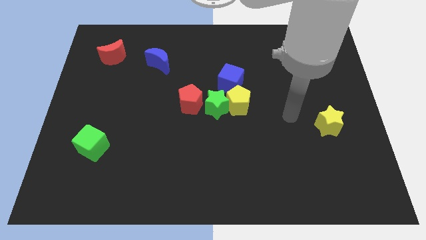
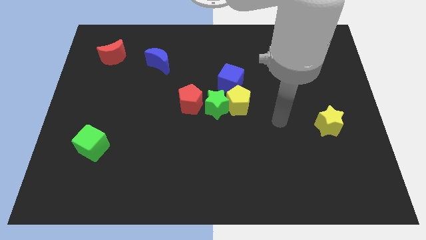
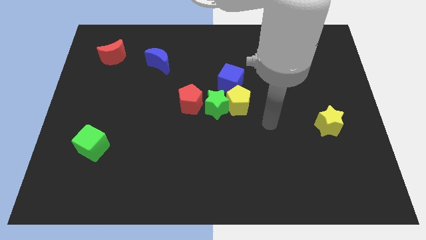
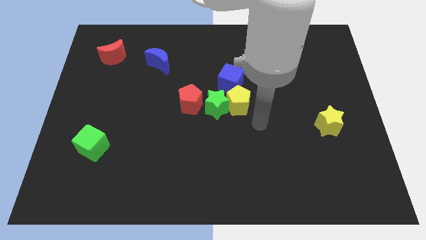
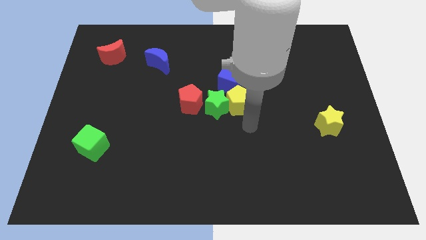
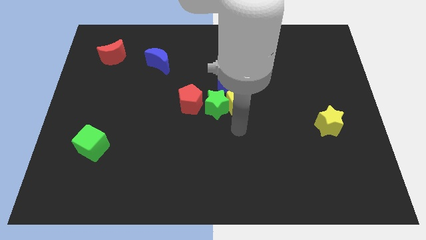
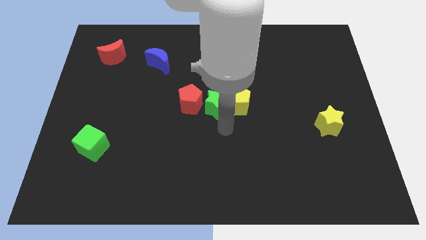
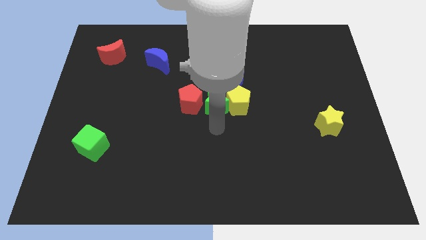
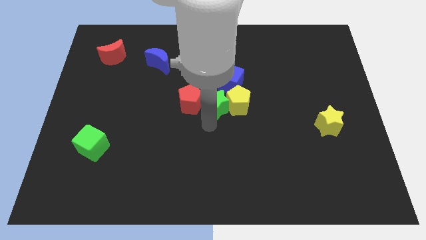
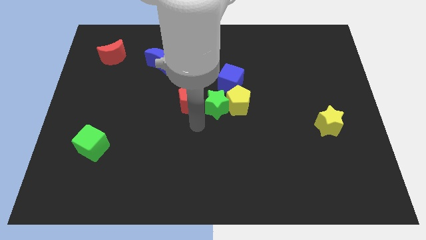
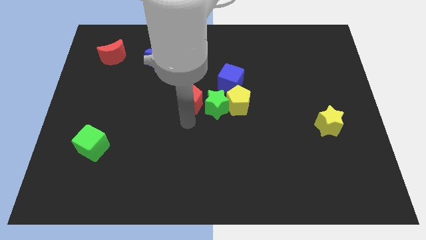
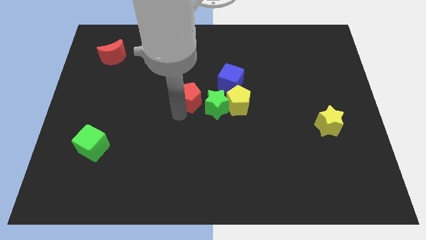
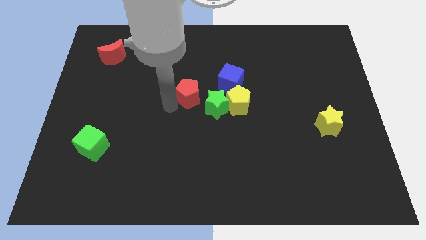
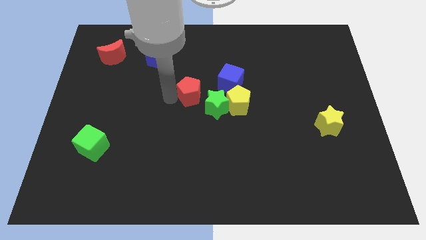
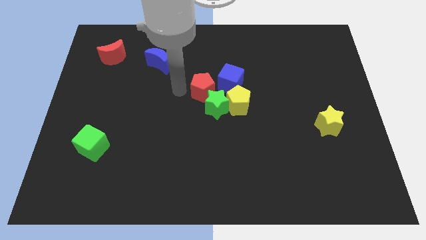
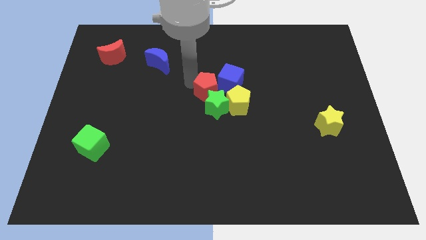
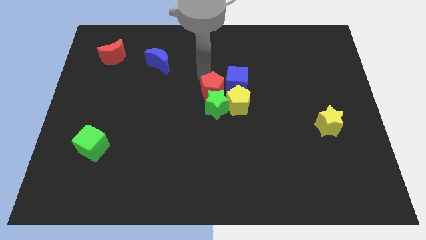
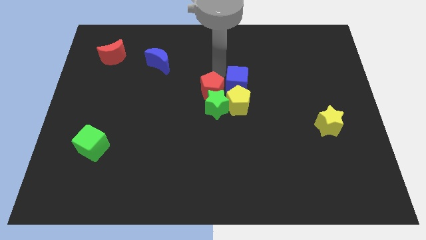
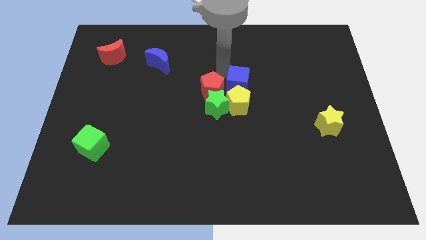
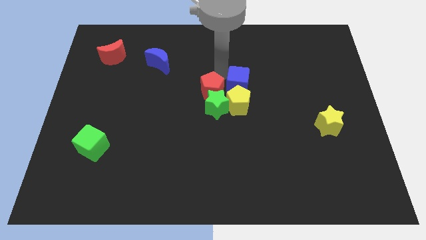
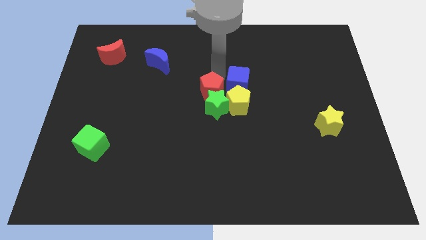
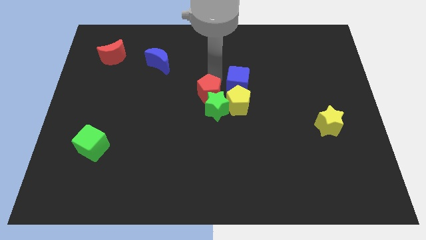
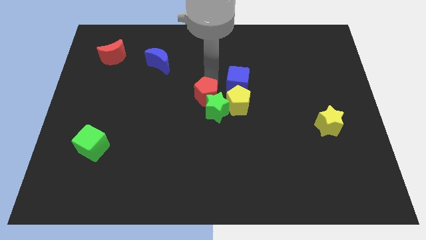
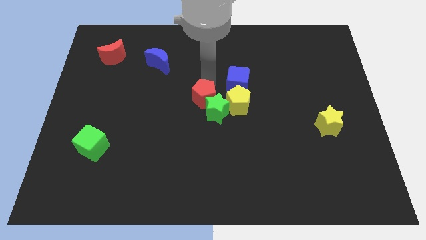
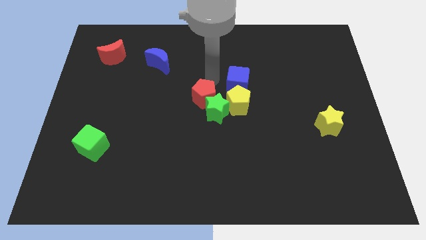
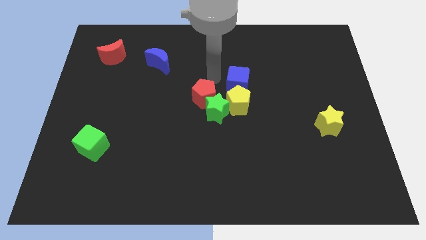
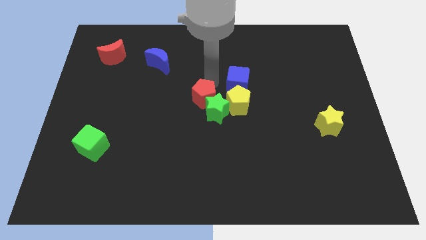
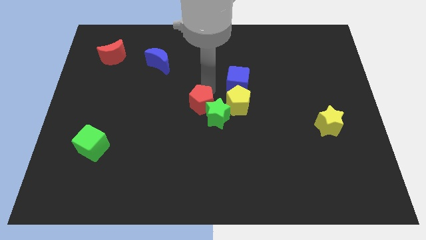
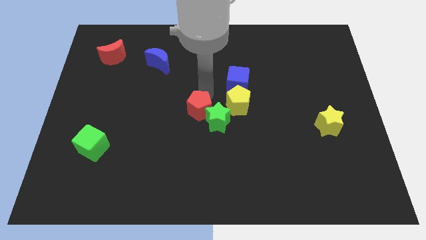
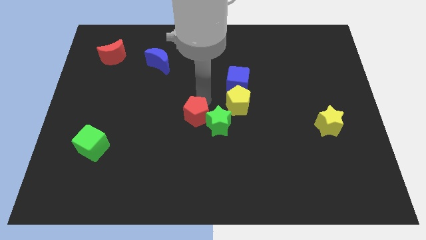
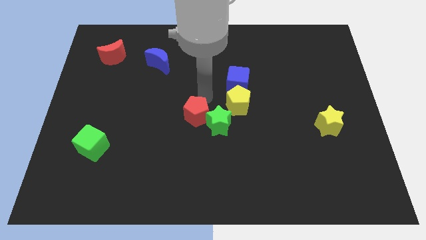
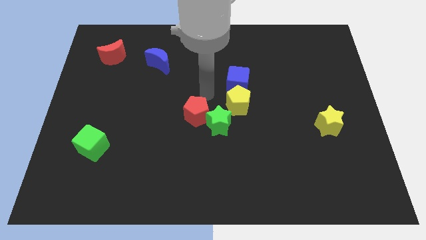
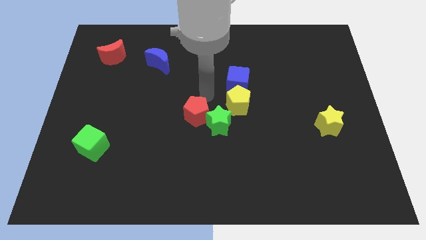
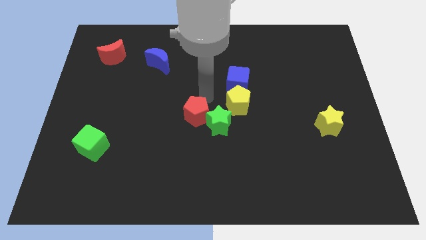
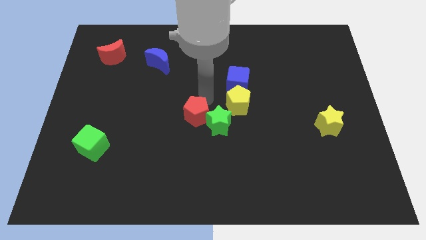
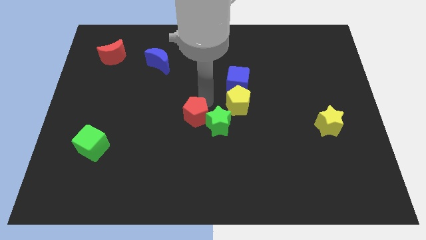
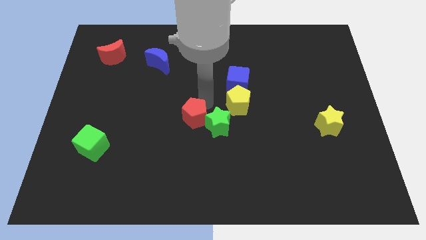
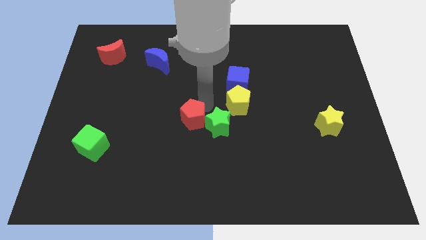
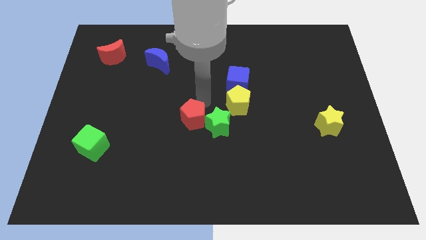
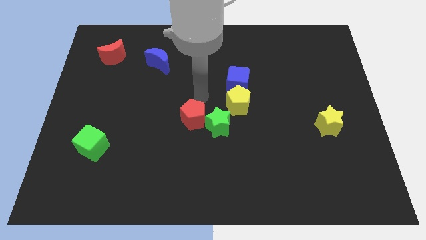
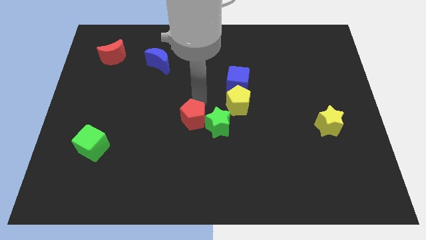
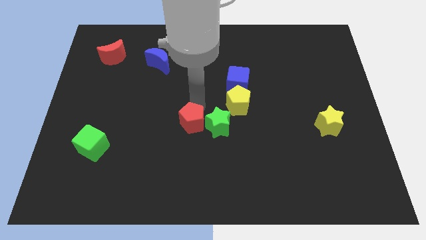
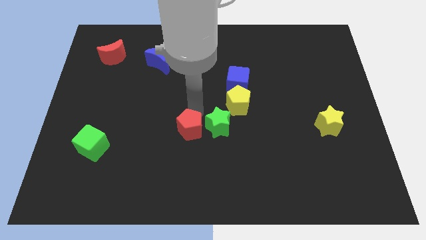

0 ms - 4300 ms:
slide the red pentagon downwards somewhat

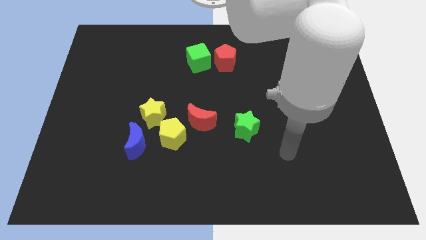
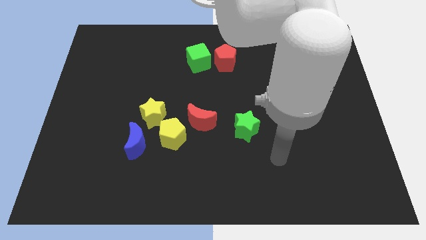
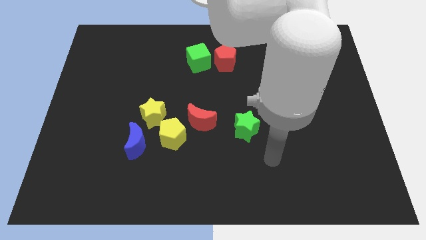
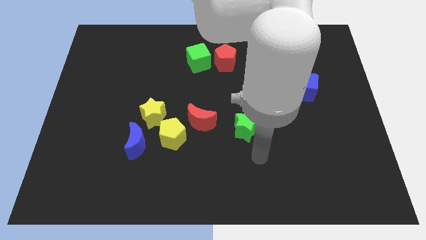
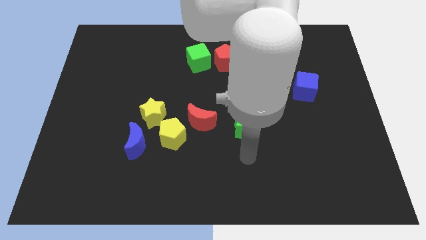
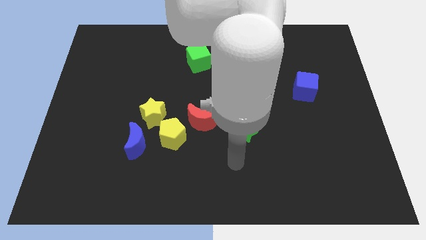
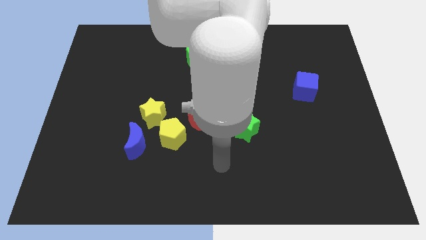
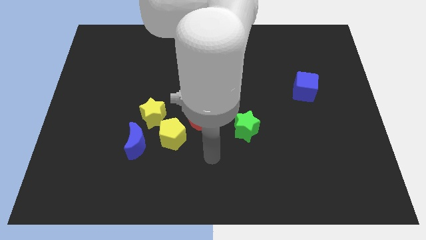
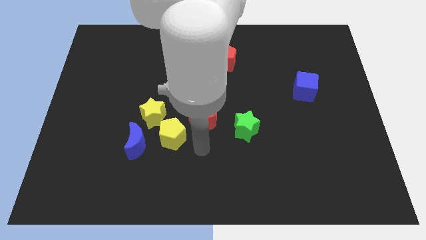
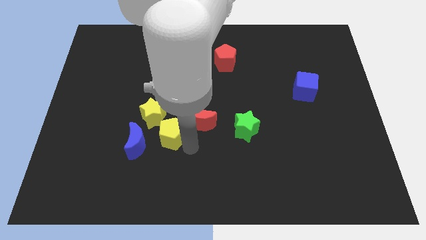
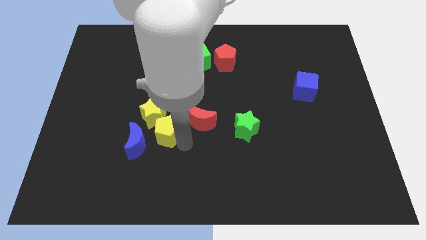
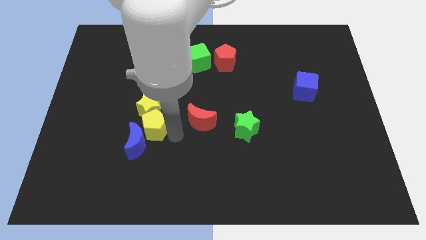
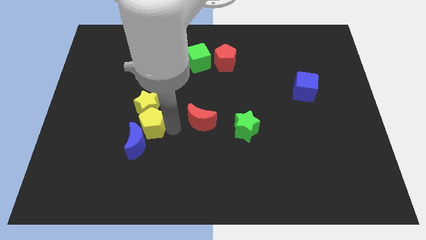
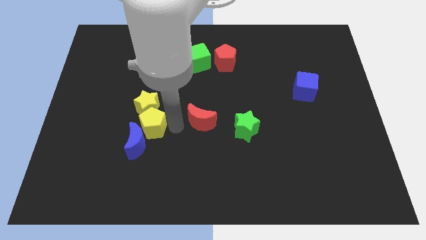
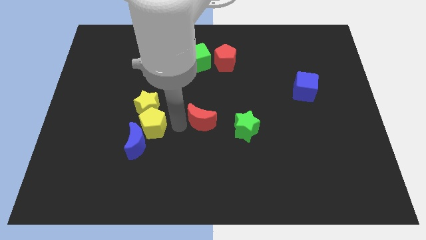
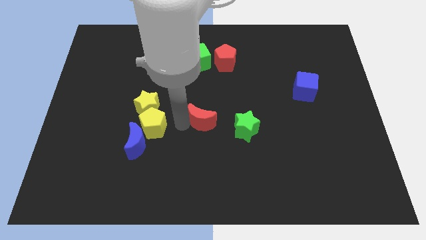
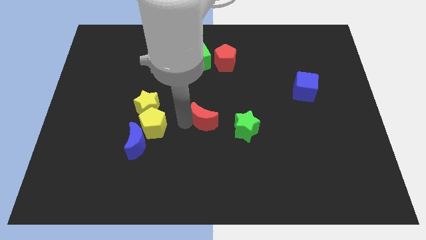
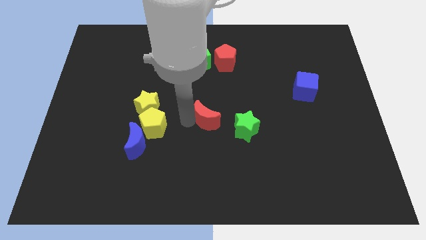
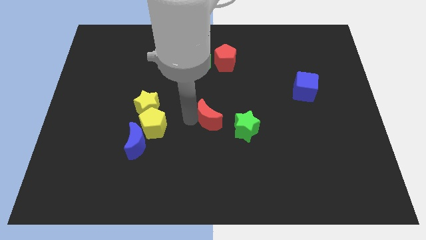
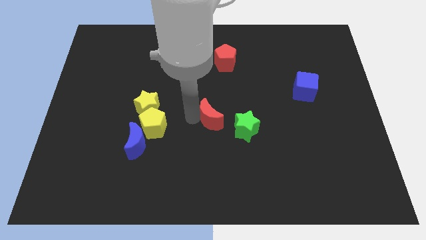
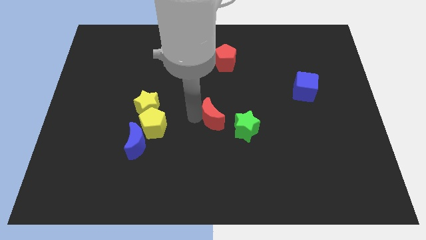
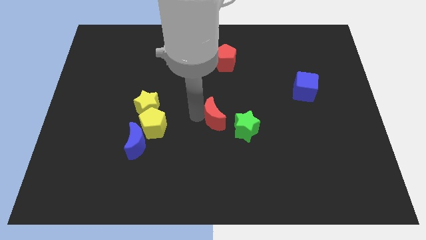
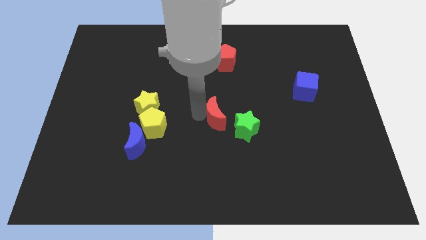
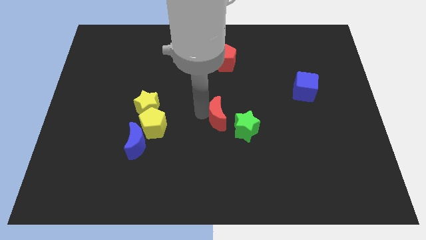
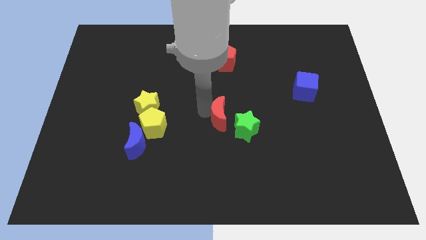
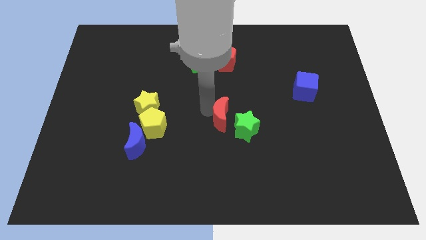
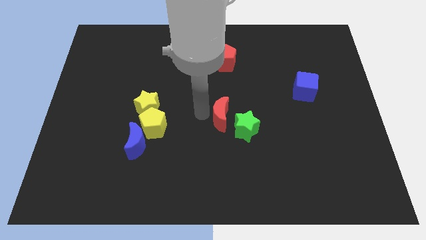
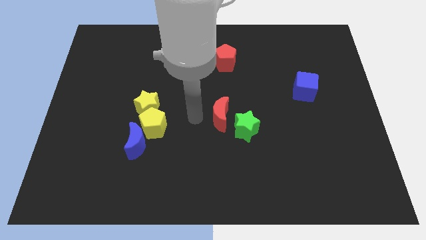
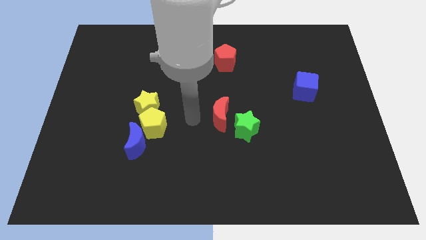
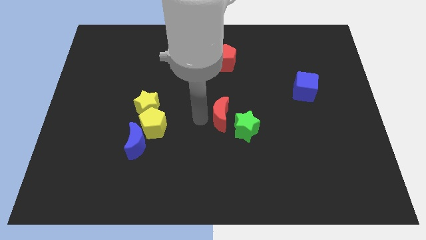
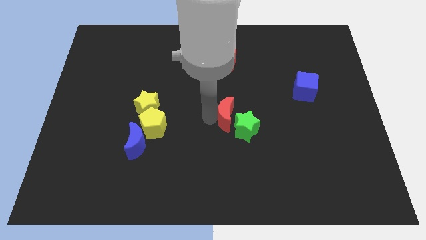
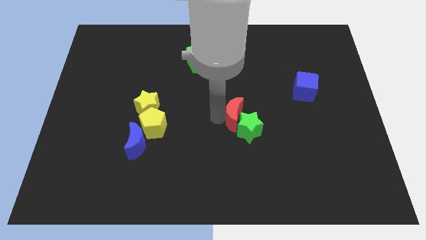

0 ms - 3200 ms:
move the red moon right a little bit

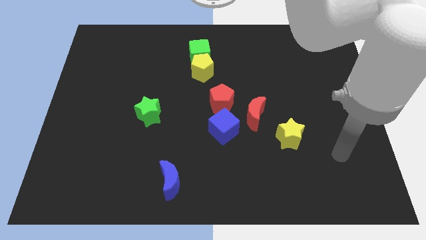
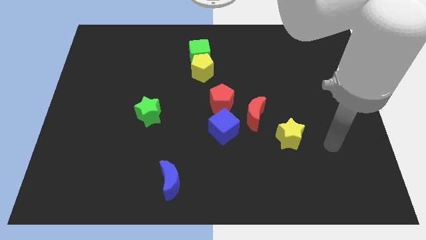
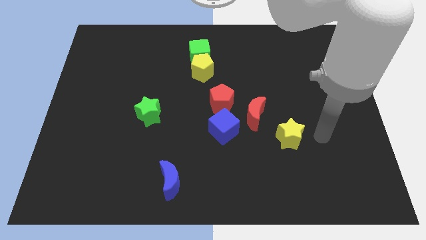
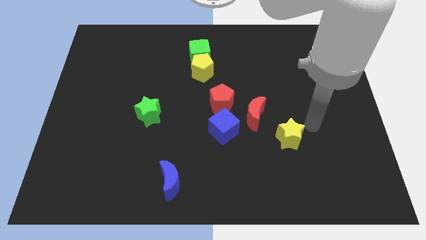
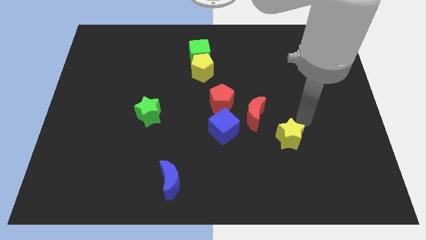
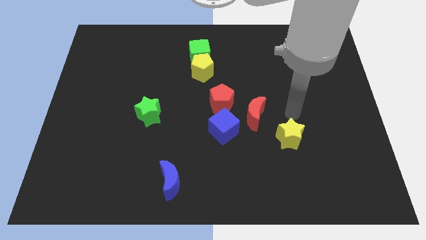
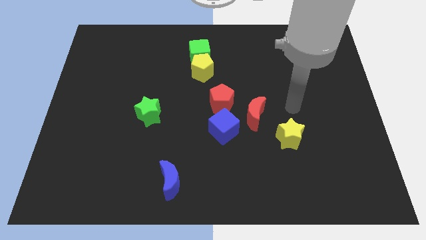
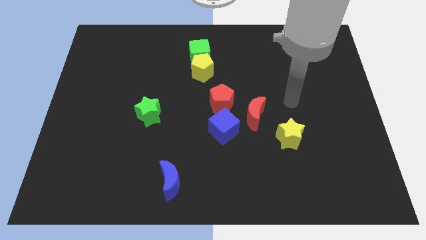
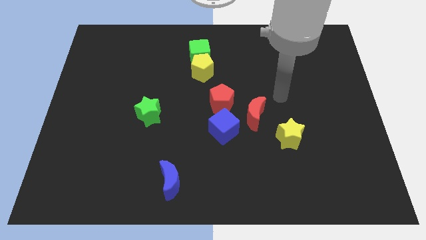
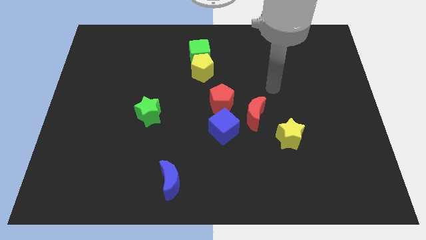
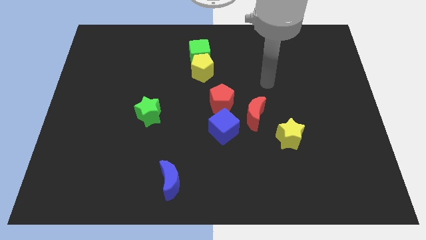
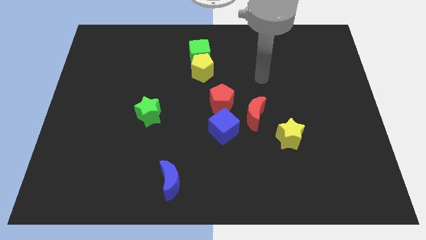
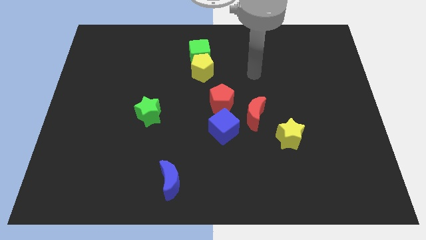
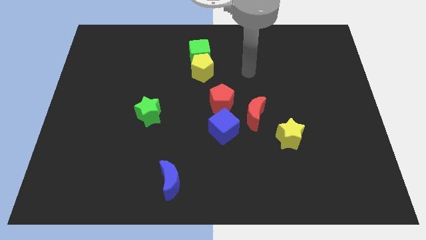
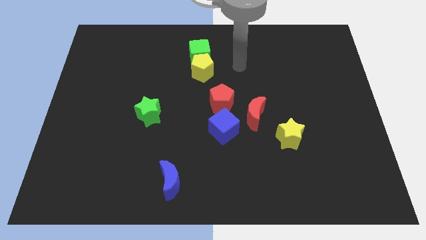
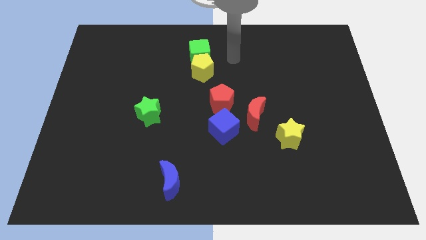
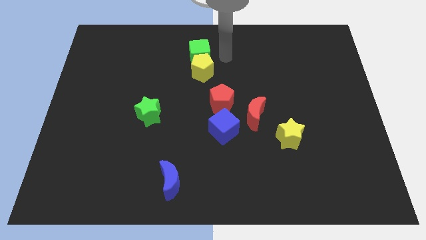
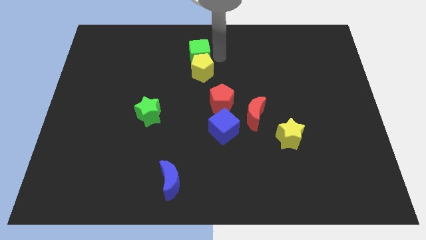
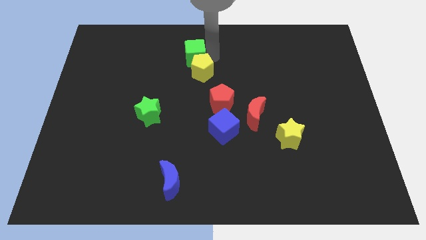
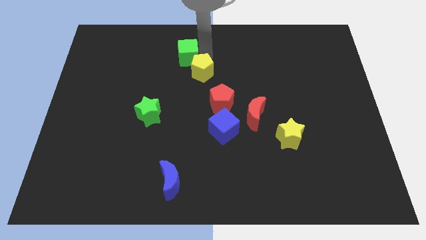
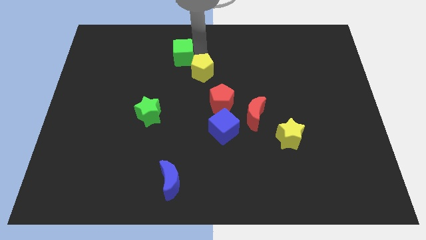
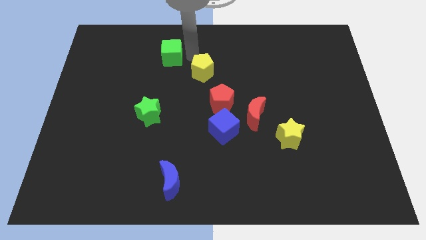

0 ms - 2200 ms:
move the green cube to the left somewhat
